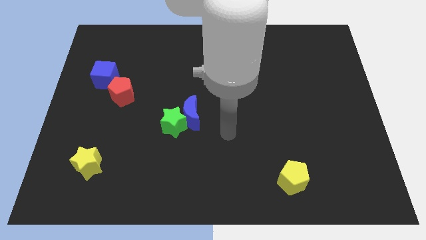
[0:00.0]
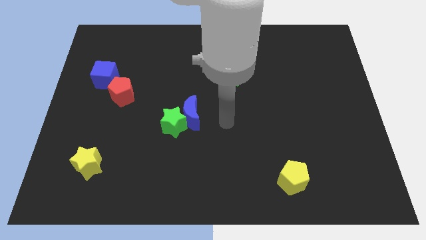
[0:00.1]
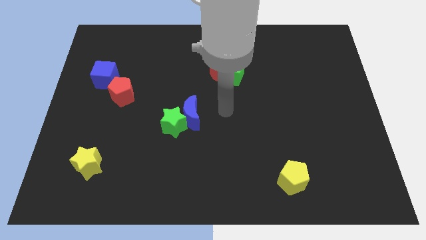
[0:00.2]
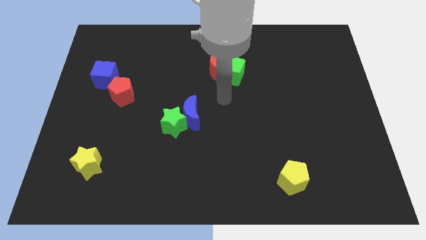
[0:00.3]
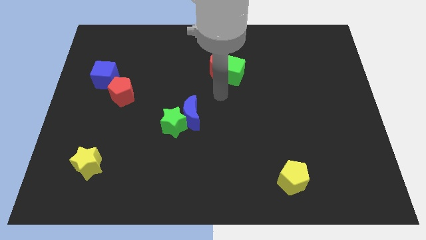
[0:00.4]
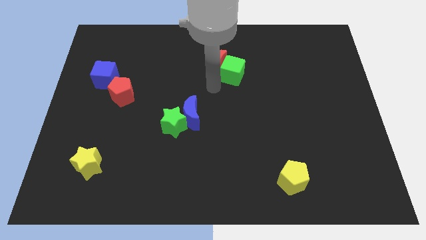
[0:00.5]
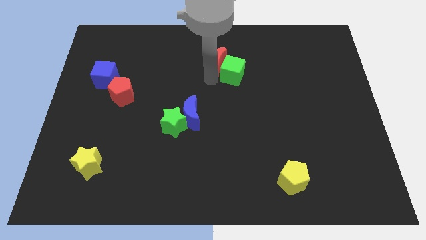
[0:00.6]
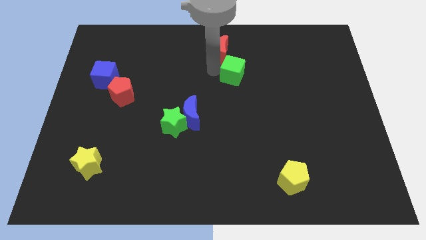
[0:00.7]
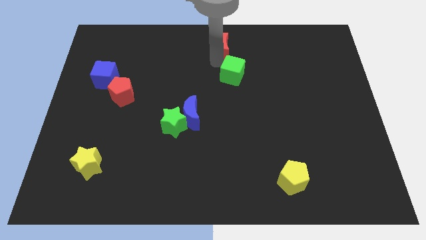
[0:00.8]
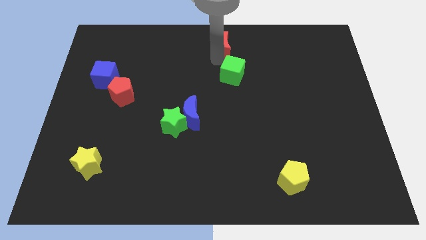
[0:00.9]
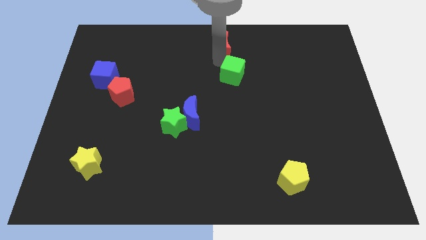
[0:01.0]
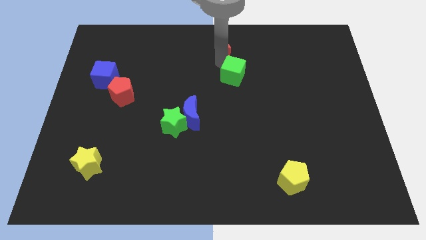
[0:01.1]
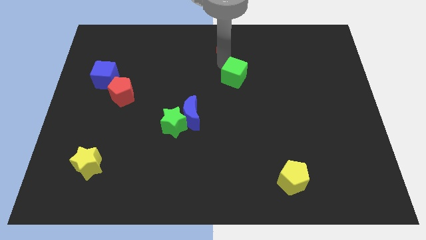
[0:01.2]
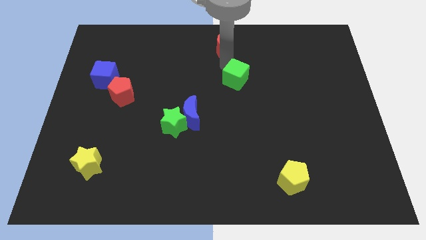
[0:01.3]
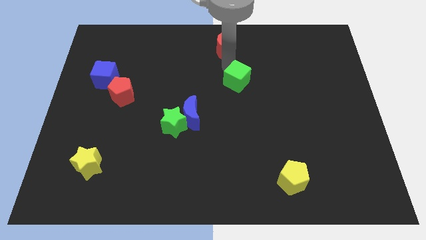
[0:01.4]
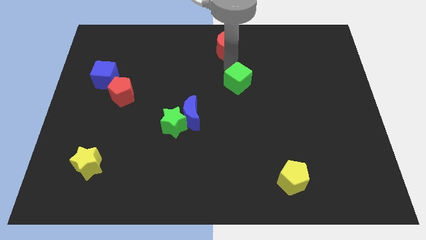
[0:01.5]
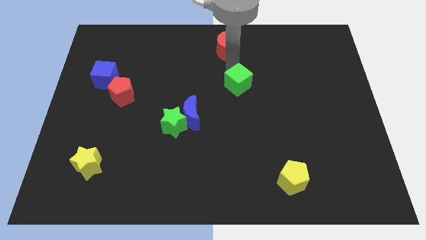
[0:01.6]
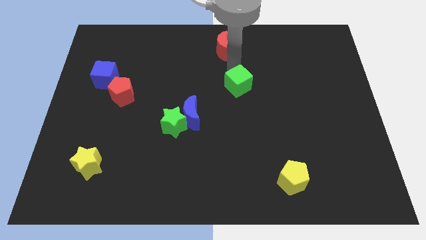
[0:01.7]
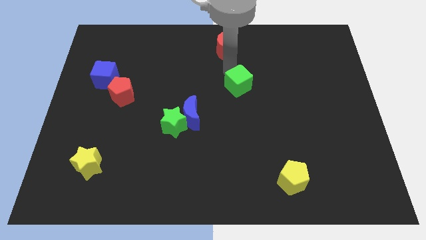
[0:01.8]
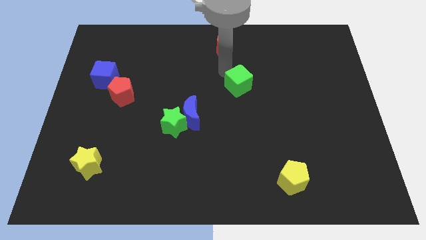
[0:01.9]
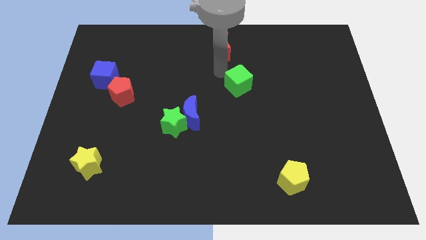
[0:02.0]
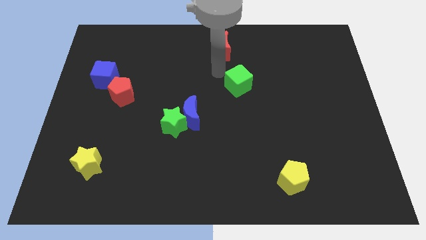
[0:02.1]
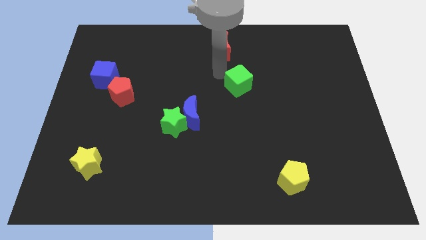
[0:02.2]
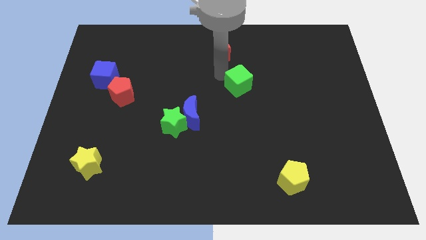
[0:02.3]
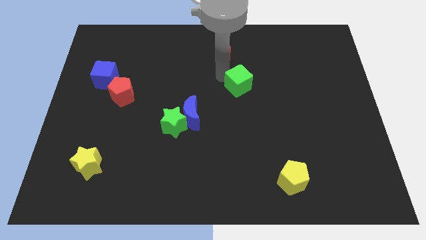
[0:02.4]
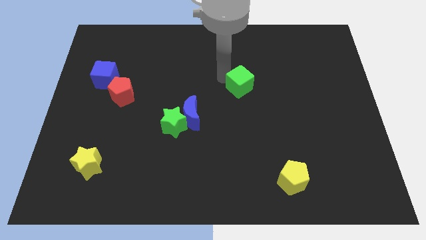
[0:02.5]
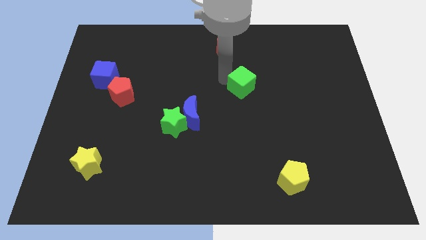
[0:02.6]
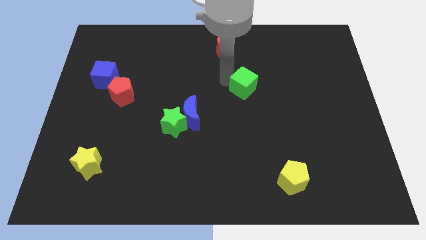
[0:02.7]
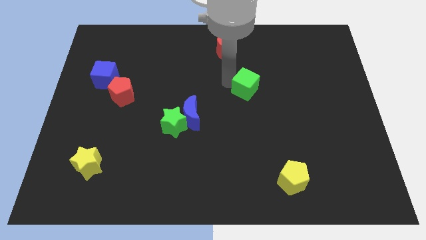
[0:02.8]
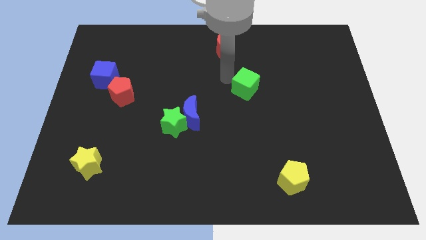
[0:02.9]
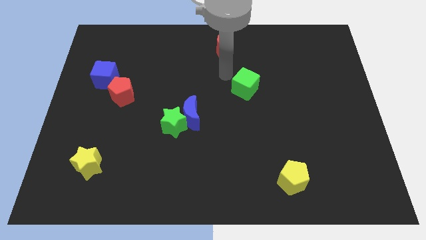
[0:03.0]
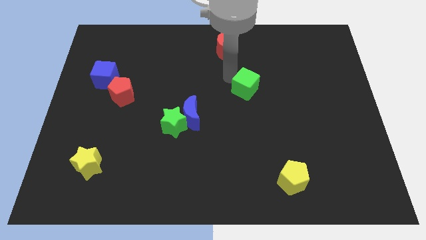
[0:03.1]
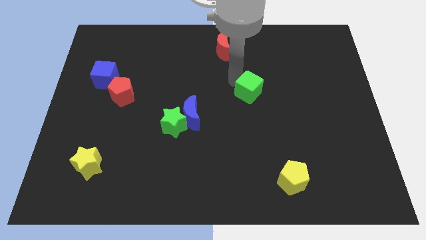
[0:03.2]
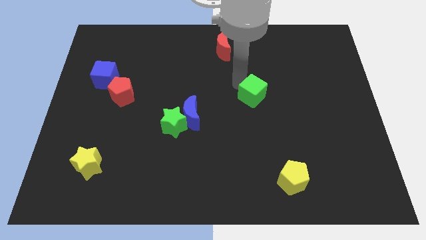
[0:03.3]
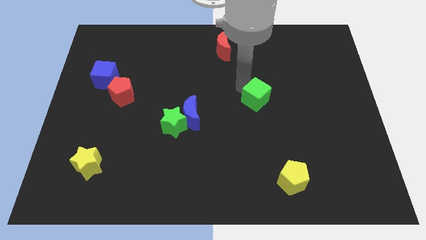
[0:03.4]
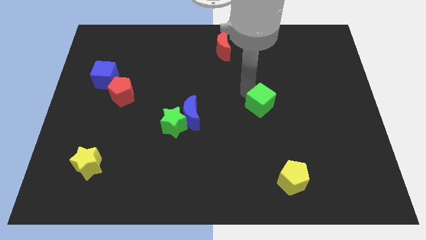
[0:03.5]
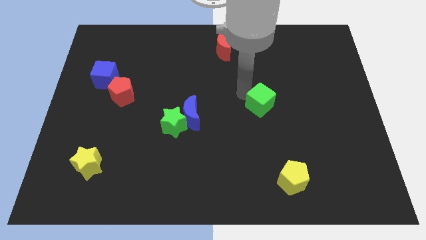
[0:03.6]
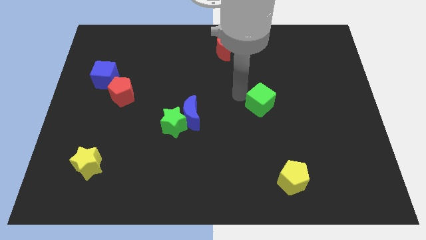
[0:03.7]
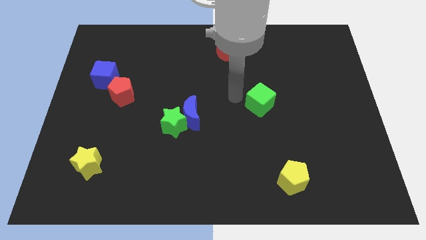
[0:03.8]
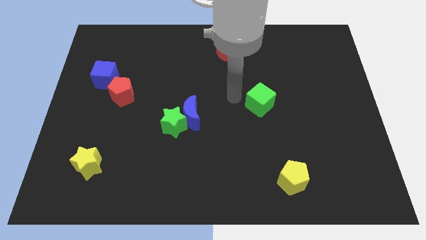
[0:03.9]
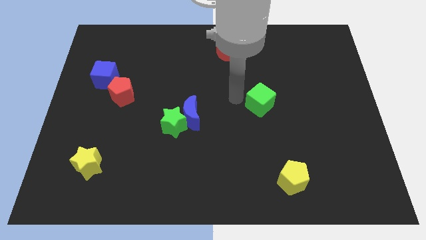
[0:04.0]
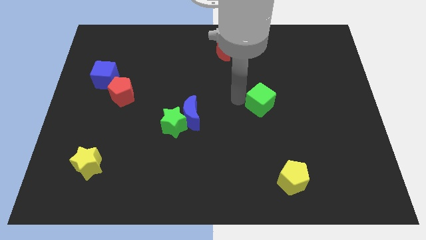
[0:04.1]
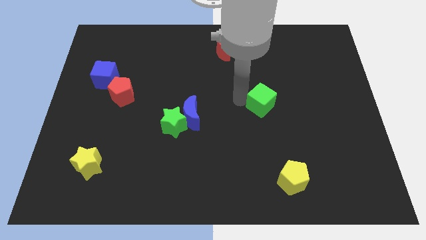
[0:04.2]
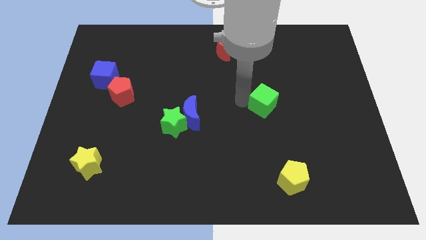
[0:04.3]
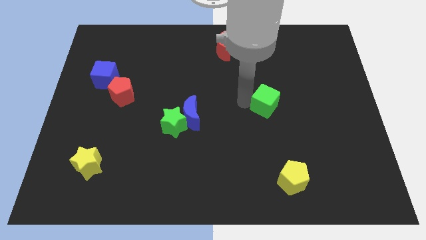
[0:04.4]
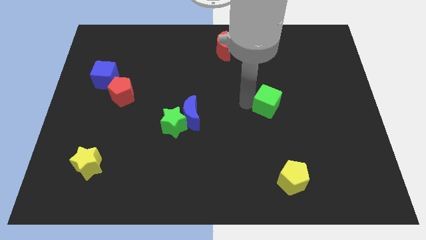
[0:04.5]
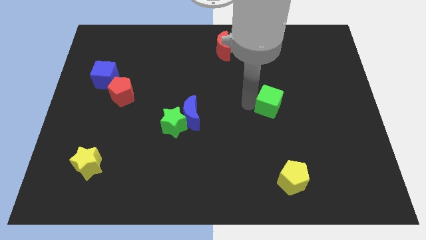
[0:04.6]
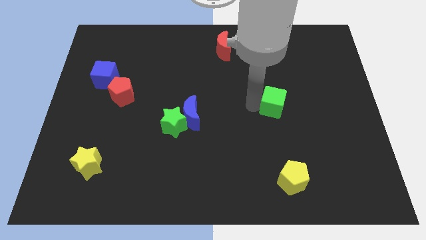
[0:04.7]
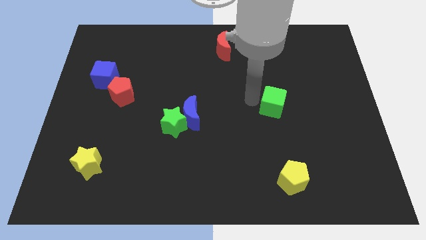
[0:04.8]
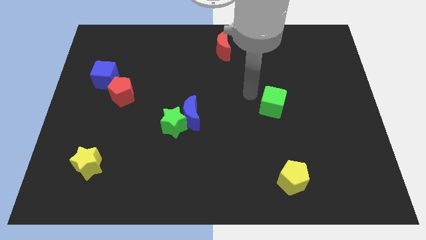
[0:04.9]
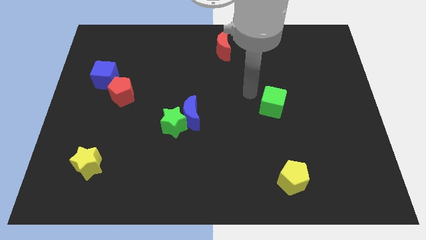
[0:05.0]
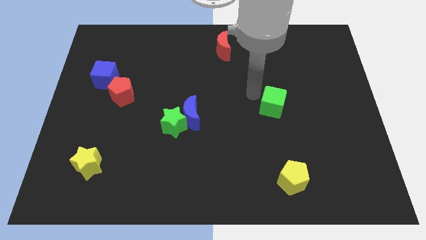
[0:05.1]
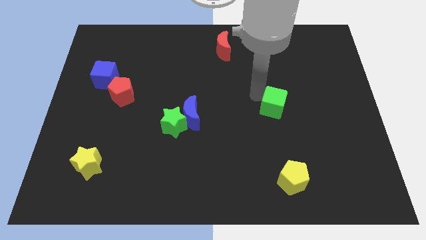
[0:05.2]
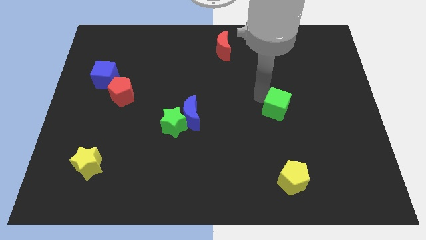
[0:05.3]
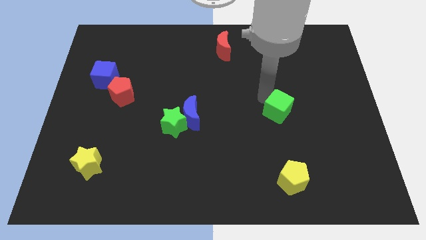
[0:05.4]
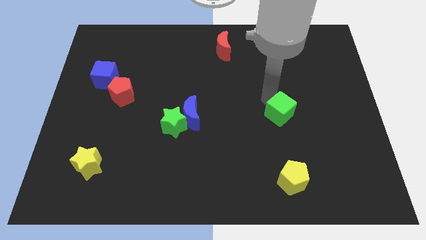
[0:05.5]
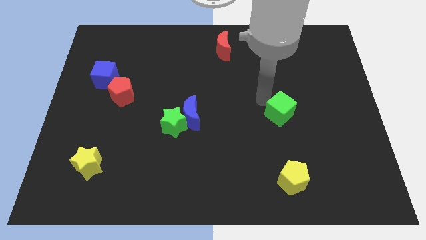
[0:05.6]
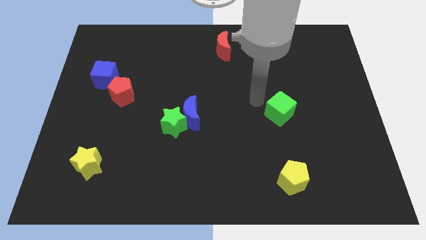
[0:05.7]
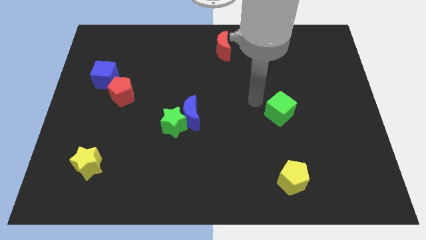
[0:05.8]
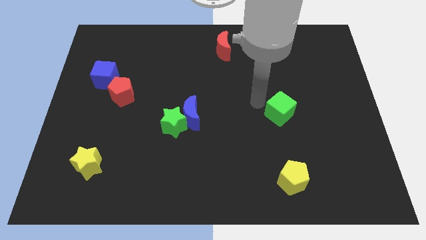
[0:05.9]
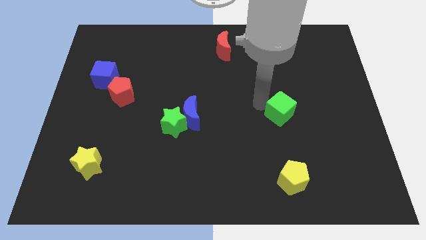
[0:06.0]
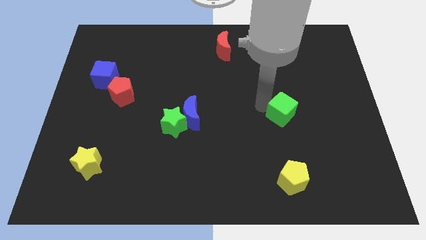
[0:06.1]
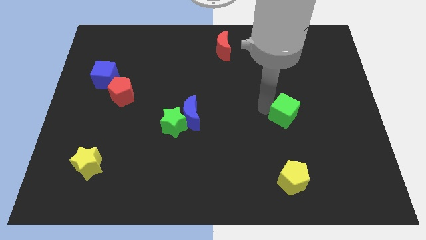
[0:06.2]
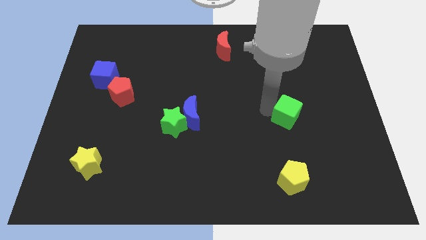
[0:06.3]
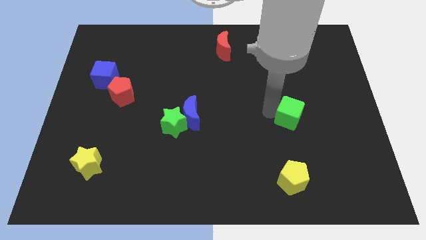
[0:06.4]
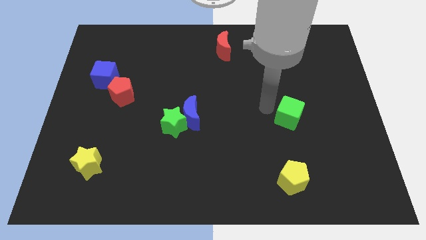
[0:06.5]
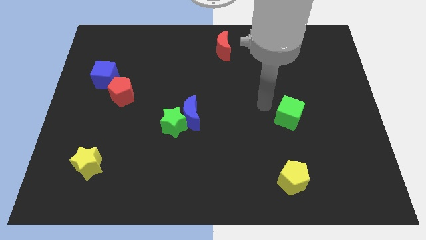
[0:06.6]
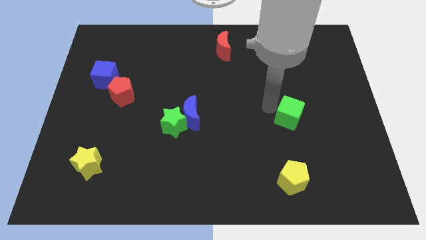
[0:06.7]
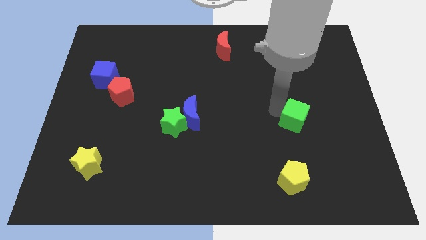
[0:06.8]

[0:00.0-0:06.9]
slide the green cube down and then to the right

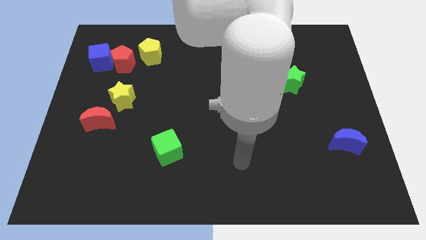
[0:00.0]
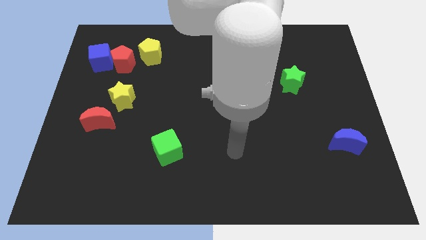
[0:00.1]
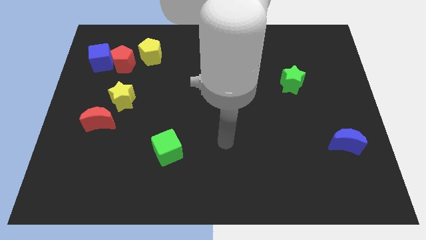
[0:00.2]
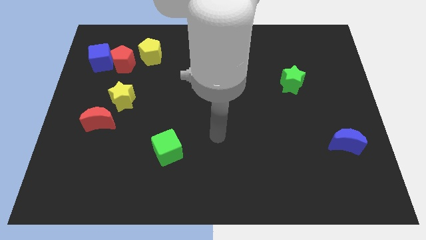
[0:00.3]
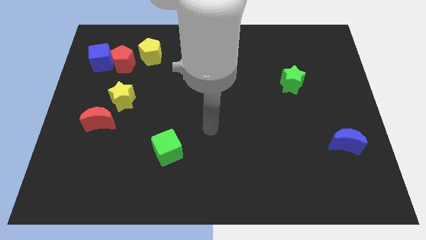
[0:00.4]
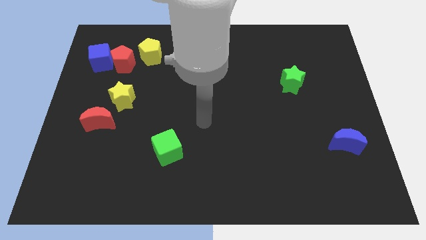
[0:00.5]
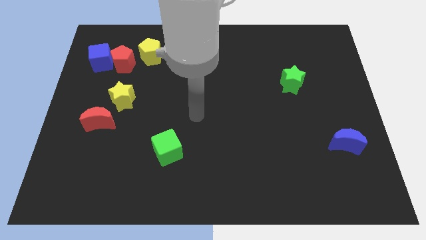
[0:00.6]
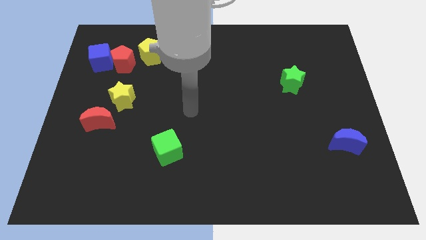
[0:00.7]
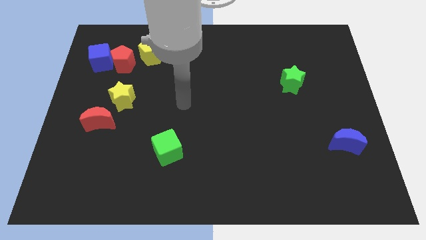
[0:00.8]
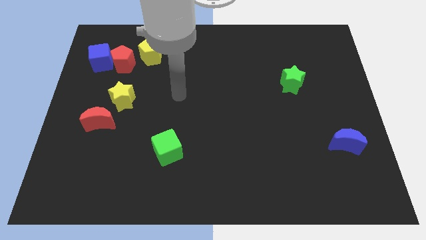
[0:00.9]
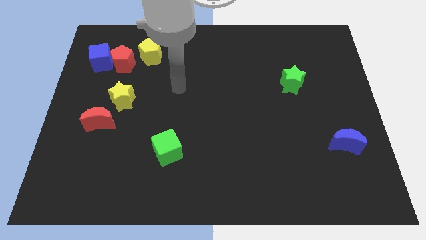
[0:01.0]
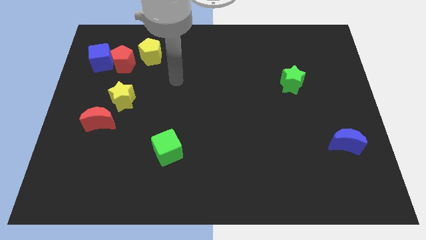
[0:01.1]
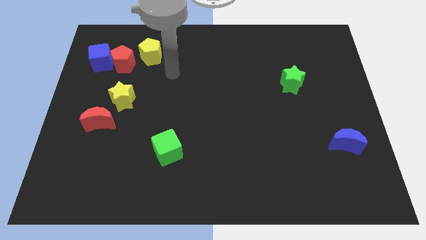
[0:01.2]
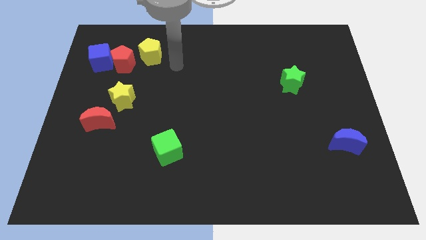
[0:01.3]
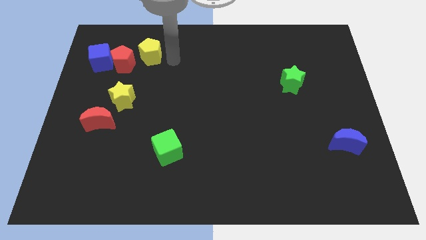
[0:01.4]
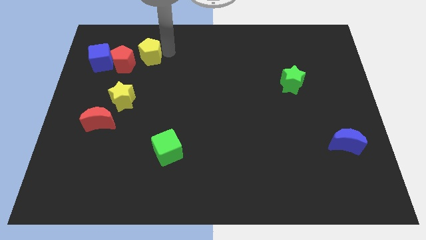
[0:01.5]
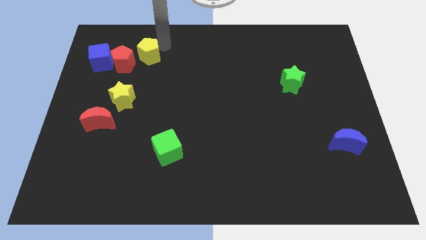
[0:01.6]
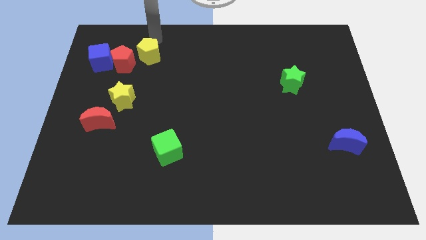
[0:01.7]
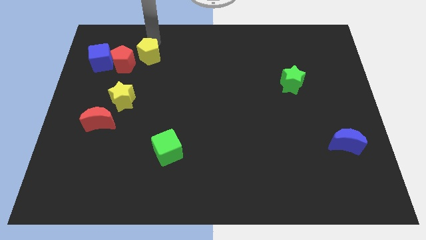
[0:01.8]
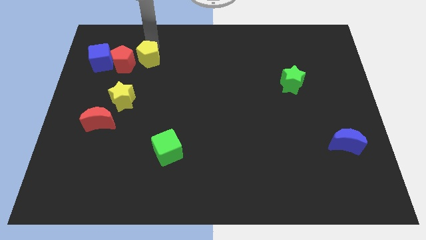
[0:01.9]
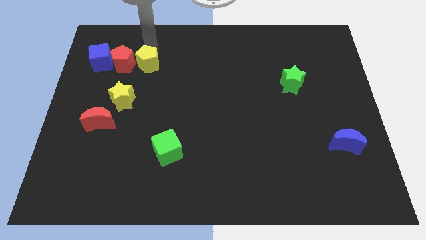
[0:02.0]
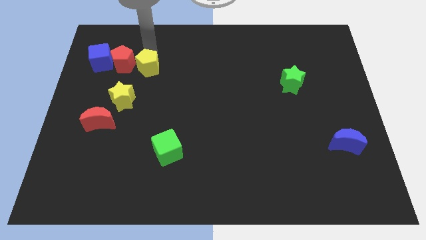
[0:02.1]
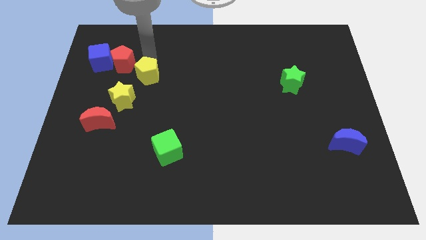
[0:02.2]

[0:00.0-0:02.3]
slightly push the yellow pentagon down
